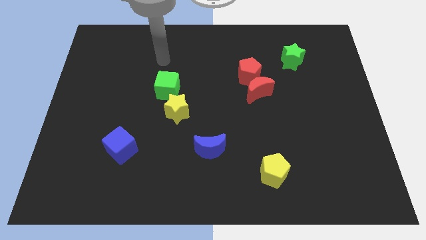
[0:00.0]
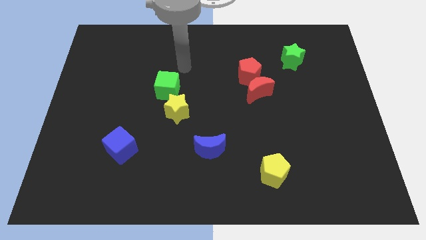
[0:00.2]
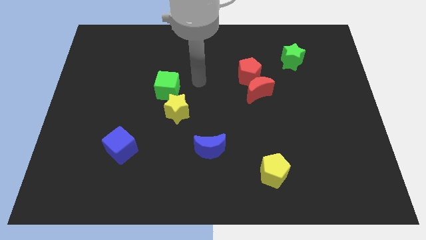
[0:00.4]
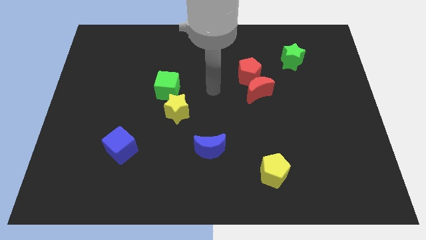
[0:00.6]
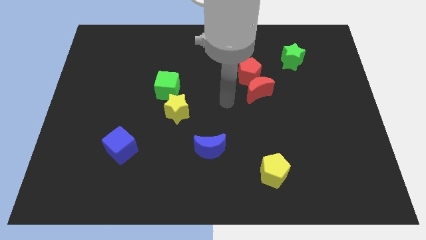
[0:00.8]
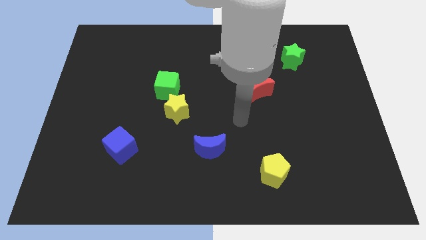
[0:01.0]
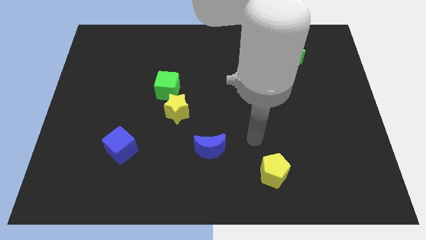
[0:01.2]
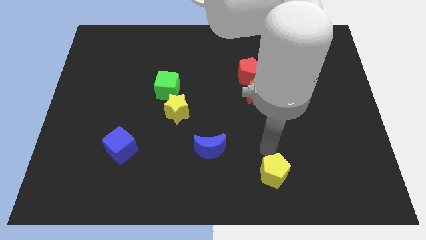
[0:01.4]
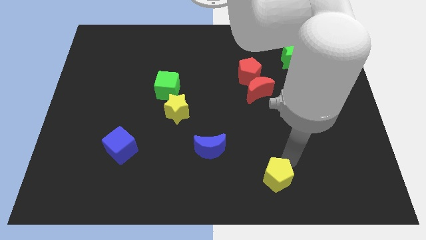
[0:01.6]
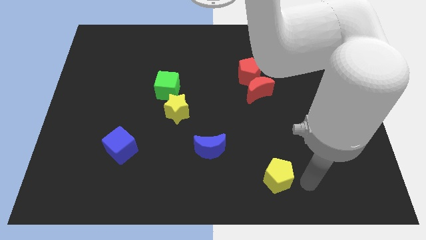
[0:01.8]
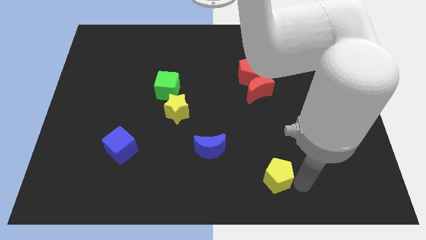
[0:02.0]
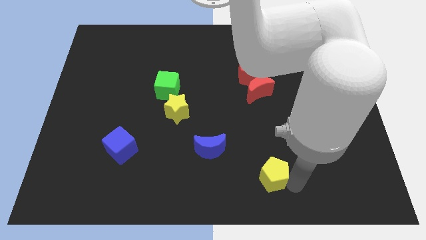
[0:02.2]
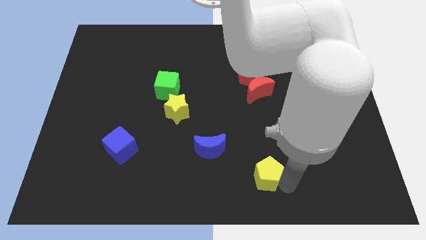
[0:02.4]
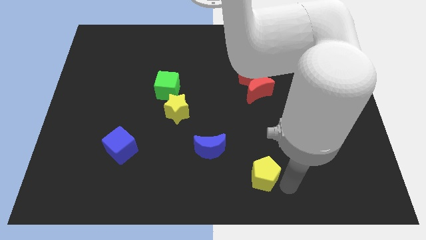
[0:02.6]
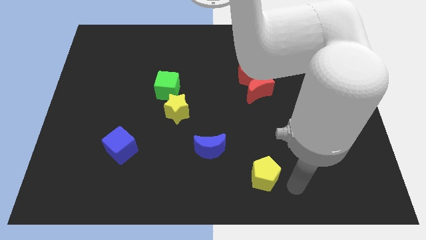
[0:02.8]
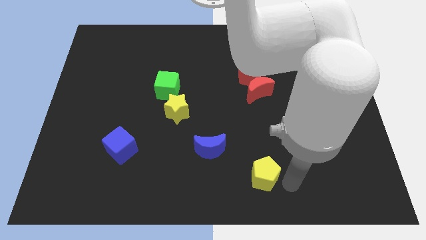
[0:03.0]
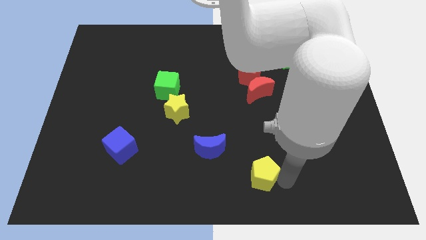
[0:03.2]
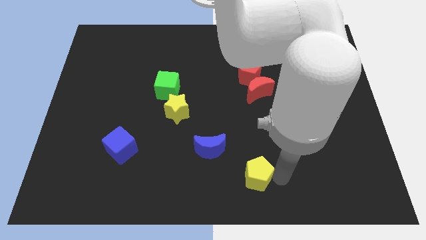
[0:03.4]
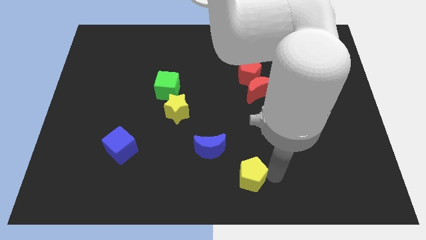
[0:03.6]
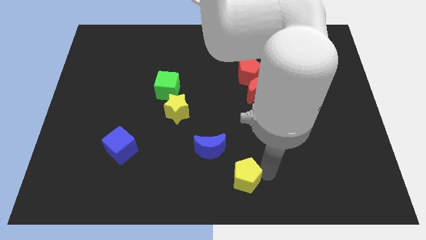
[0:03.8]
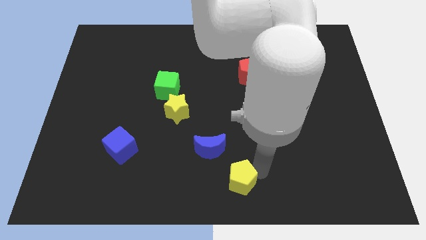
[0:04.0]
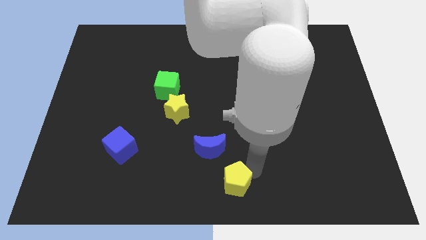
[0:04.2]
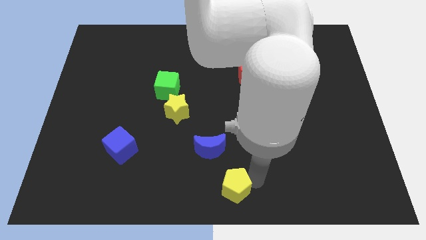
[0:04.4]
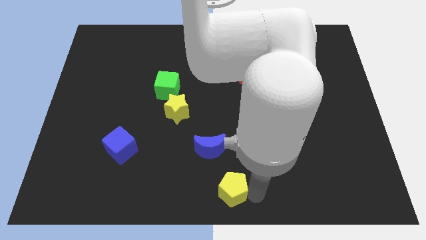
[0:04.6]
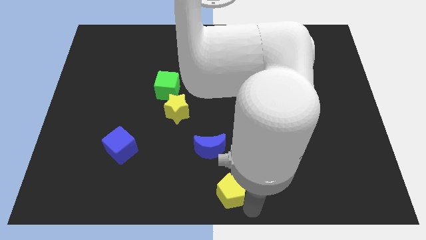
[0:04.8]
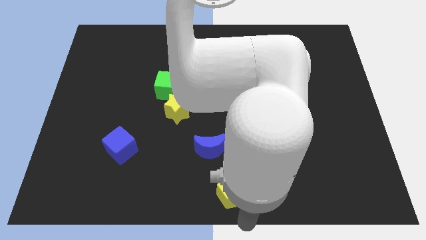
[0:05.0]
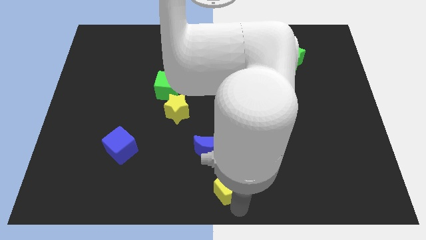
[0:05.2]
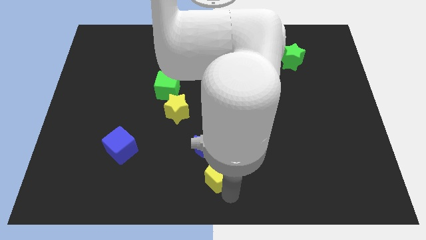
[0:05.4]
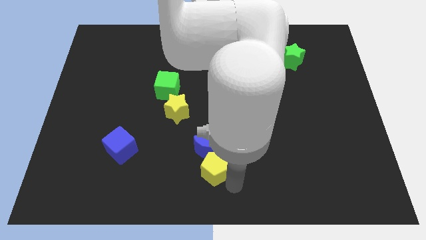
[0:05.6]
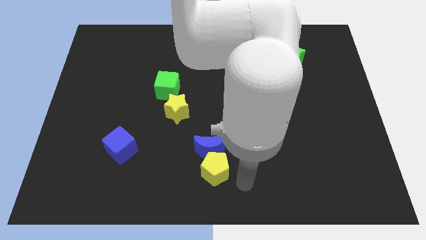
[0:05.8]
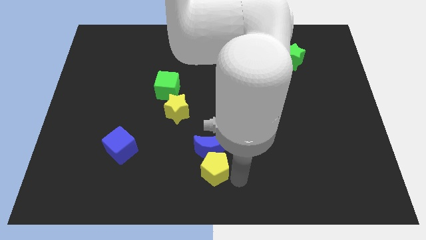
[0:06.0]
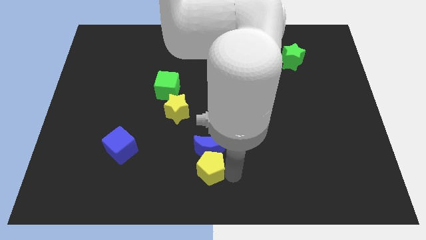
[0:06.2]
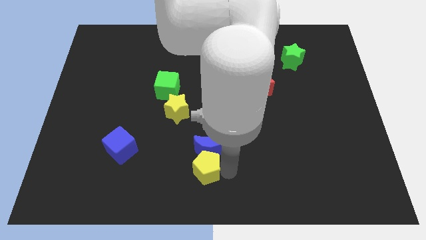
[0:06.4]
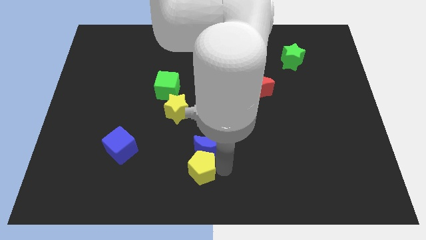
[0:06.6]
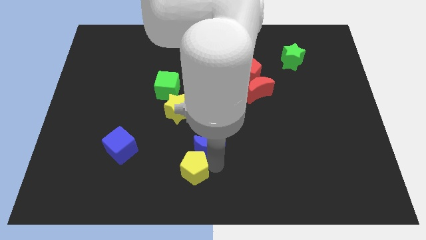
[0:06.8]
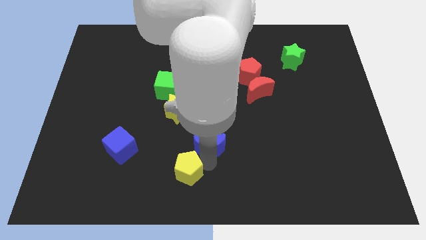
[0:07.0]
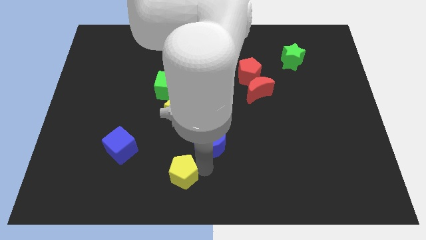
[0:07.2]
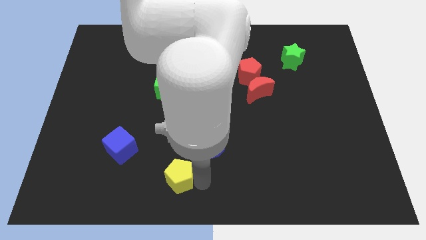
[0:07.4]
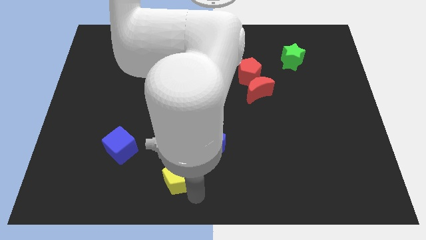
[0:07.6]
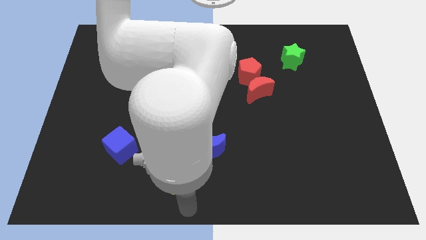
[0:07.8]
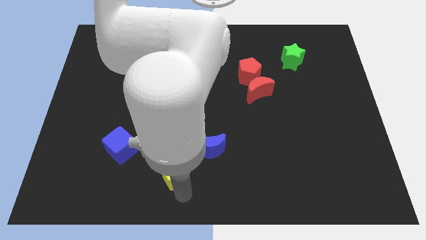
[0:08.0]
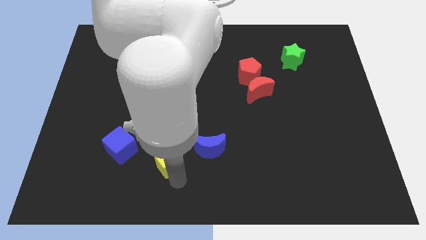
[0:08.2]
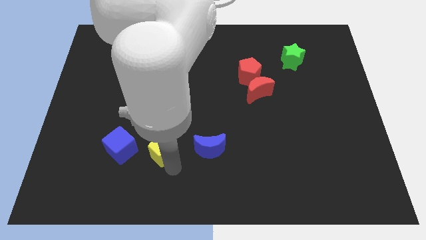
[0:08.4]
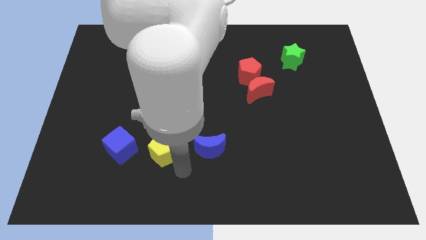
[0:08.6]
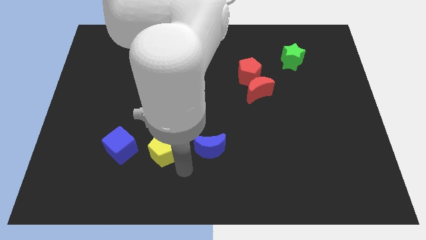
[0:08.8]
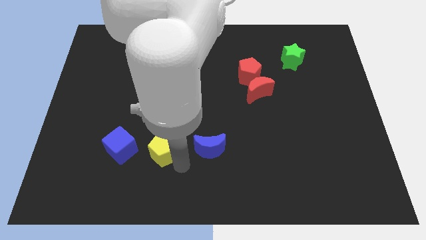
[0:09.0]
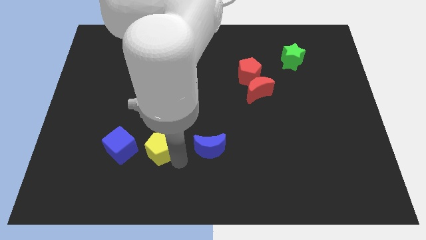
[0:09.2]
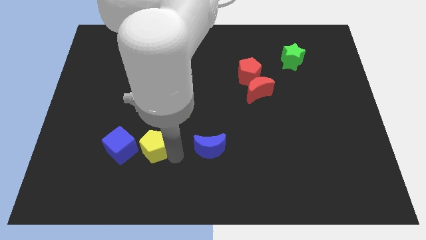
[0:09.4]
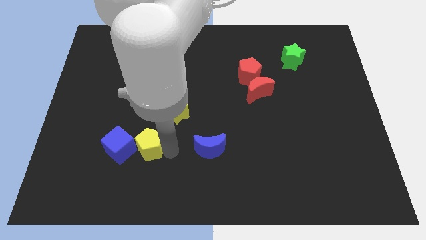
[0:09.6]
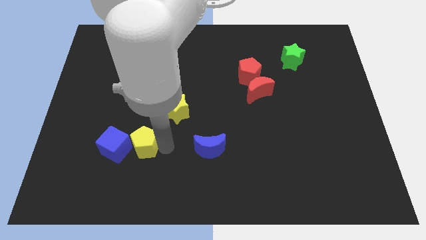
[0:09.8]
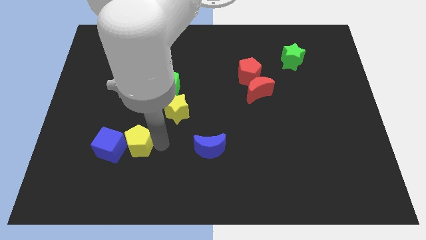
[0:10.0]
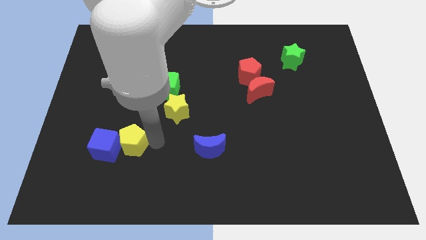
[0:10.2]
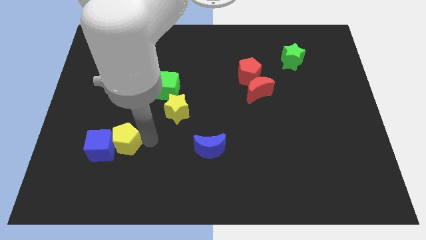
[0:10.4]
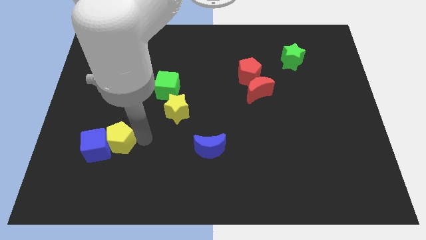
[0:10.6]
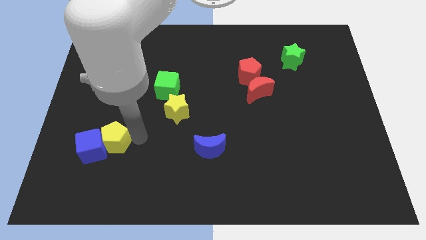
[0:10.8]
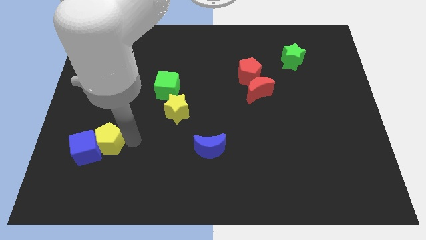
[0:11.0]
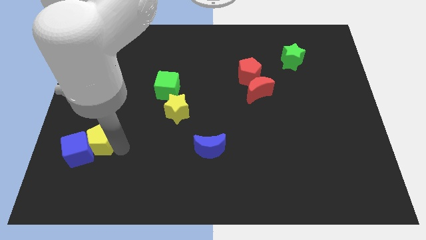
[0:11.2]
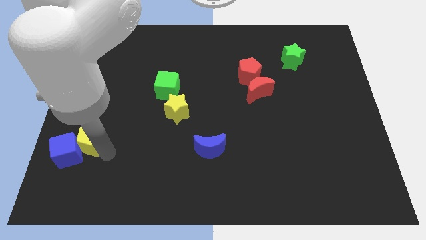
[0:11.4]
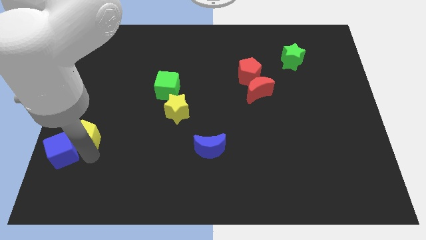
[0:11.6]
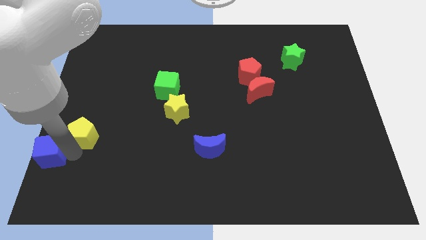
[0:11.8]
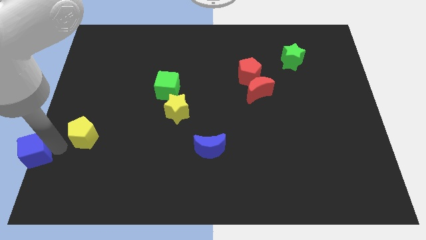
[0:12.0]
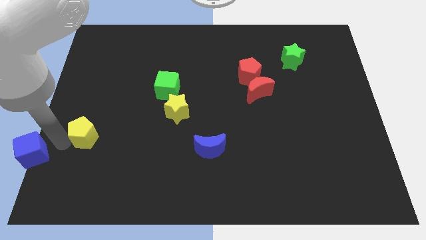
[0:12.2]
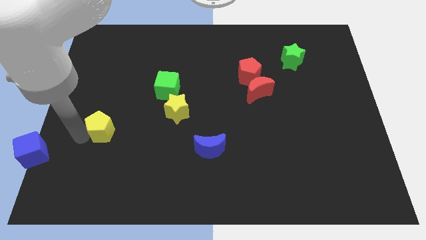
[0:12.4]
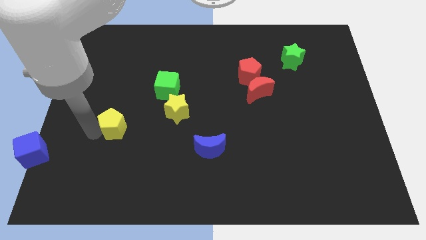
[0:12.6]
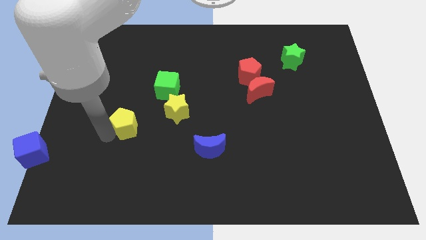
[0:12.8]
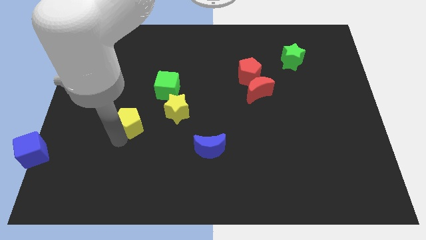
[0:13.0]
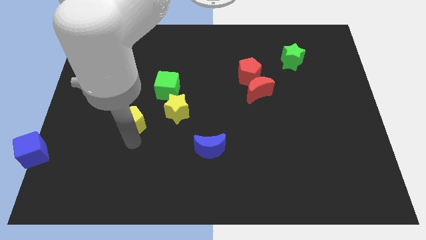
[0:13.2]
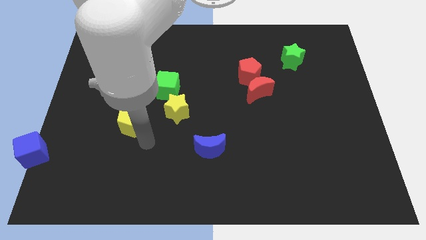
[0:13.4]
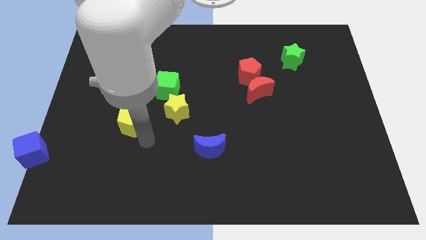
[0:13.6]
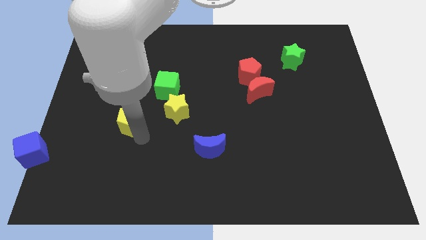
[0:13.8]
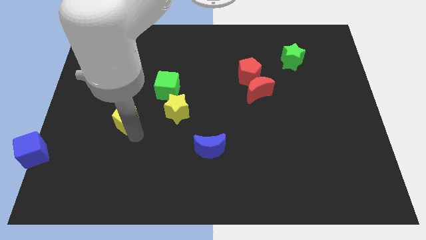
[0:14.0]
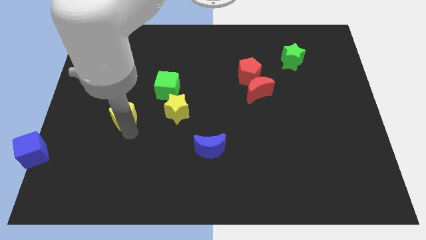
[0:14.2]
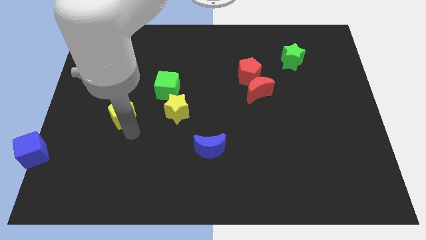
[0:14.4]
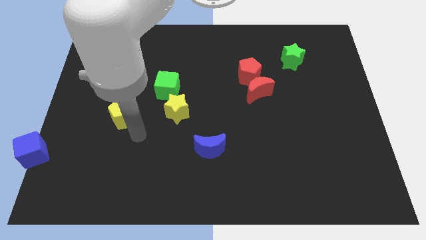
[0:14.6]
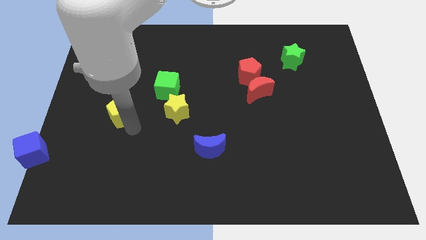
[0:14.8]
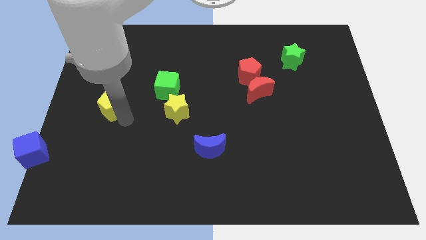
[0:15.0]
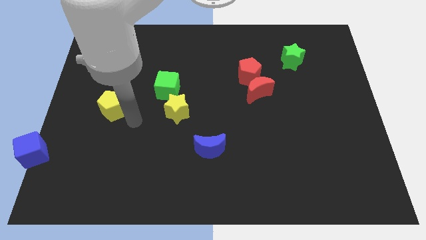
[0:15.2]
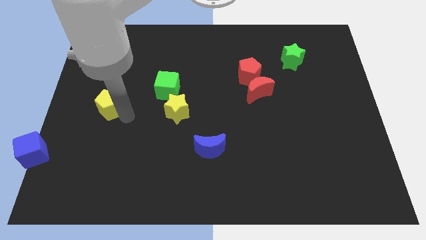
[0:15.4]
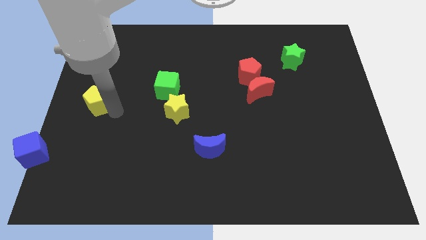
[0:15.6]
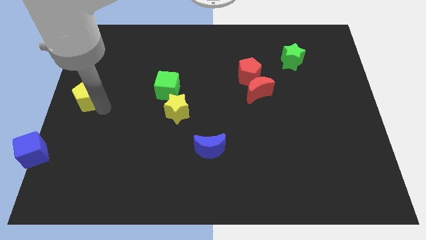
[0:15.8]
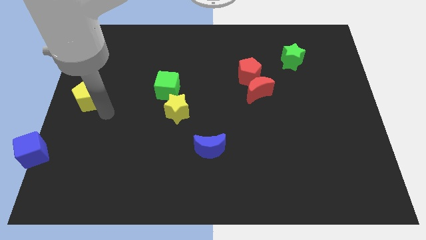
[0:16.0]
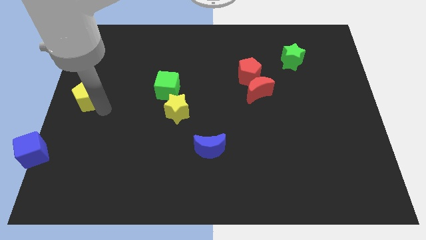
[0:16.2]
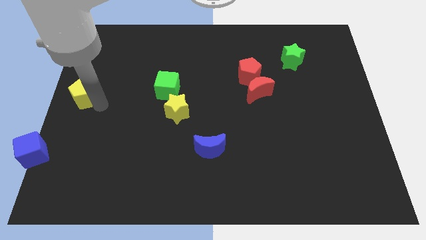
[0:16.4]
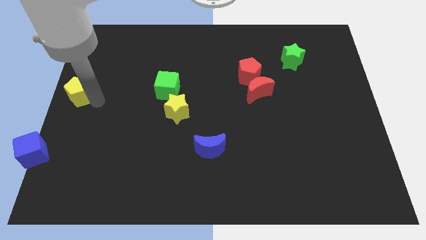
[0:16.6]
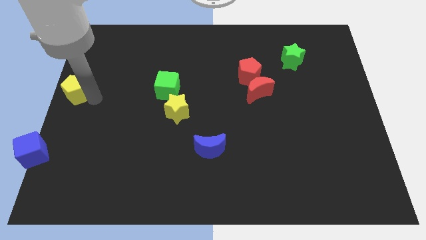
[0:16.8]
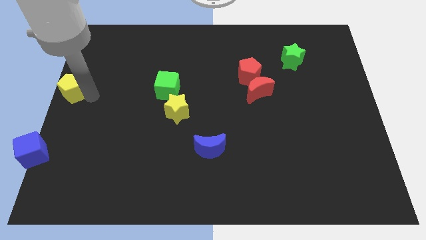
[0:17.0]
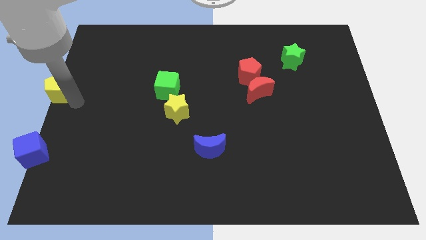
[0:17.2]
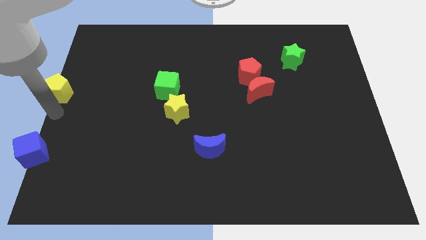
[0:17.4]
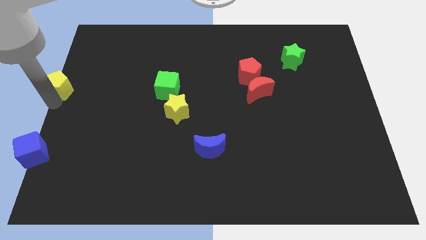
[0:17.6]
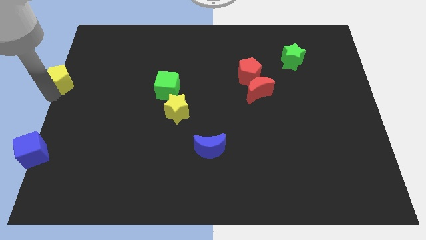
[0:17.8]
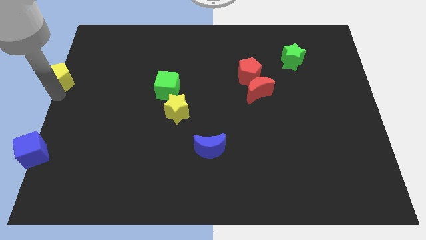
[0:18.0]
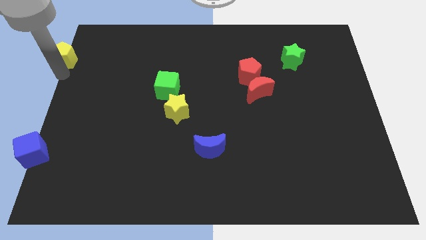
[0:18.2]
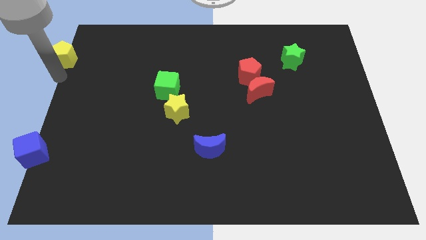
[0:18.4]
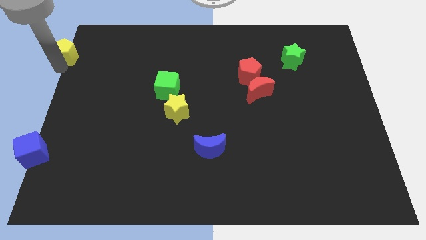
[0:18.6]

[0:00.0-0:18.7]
push the yellow pentagon to the top left
